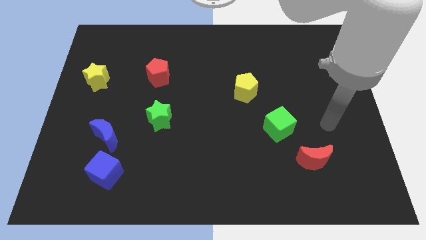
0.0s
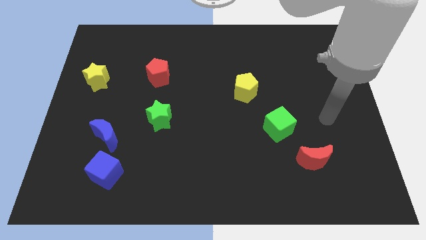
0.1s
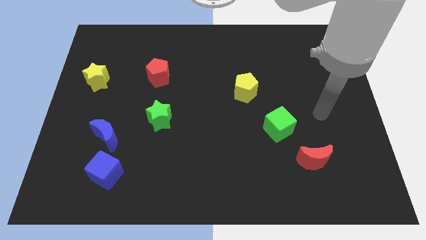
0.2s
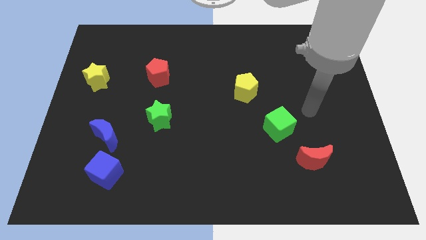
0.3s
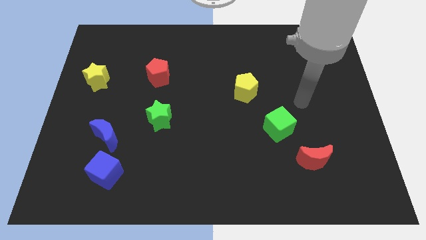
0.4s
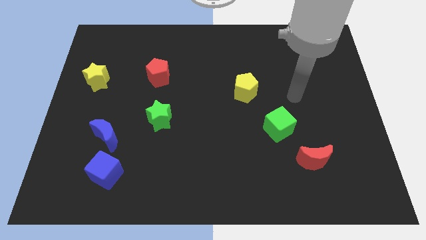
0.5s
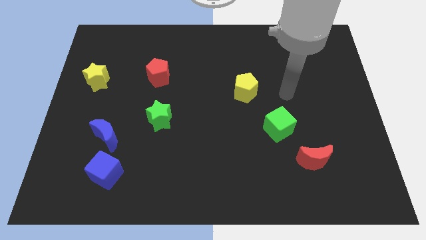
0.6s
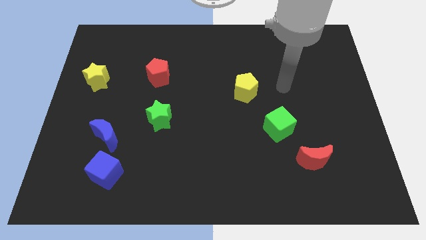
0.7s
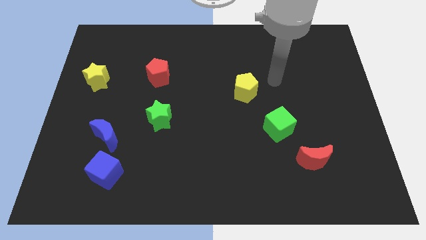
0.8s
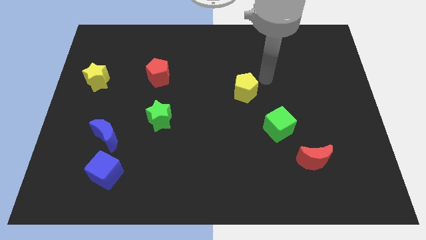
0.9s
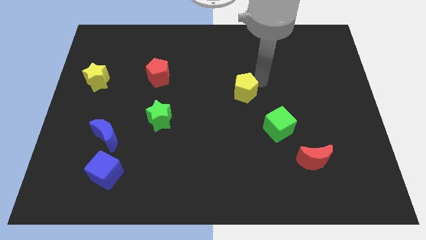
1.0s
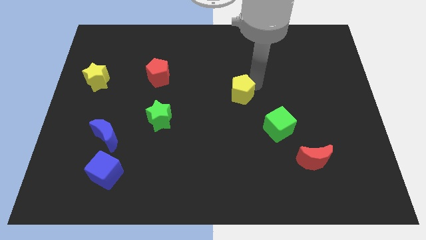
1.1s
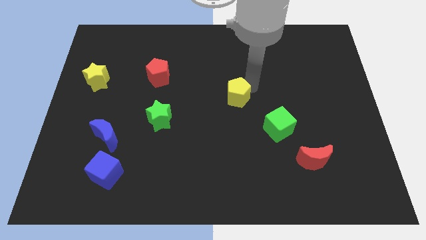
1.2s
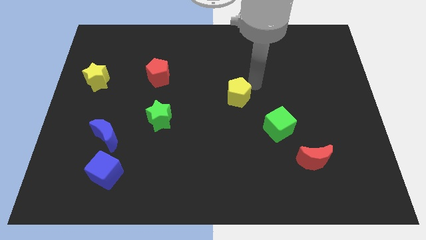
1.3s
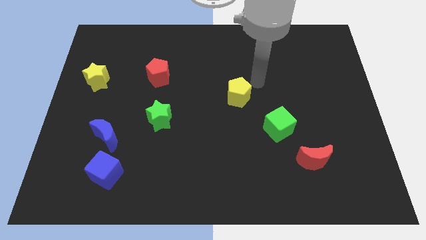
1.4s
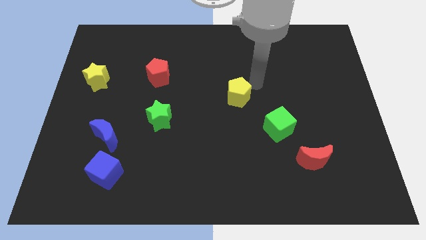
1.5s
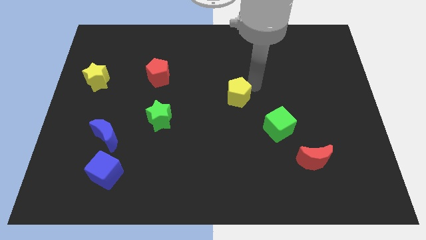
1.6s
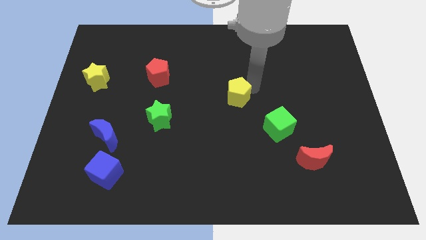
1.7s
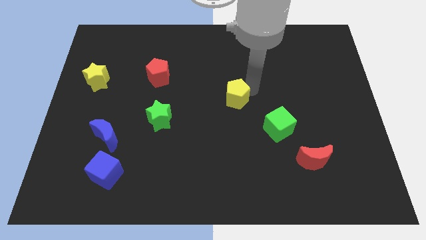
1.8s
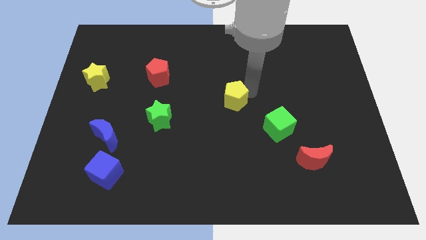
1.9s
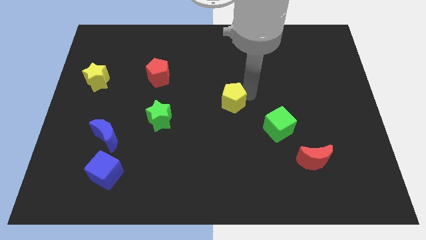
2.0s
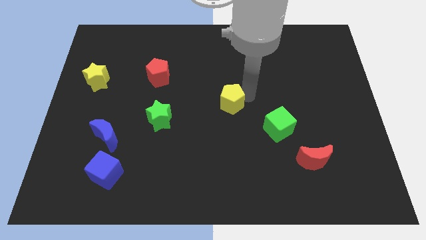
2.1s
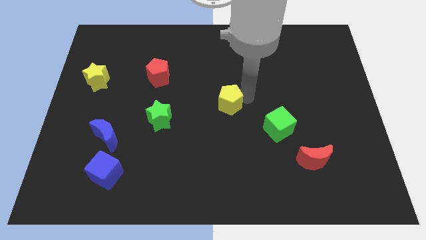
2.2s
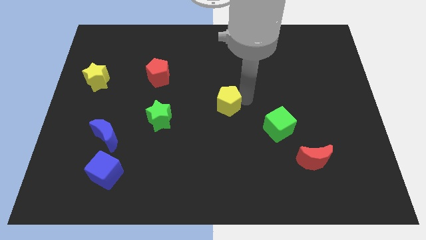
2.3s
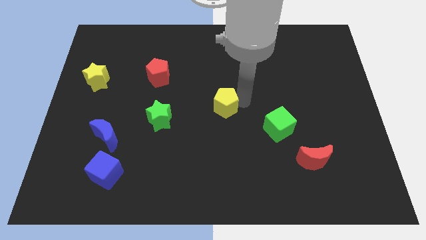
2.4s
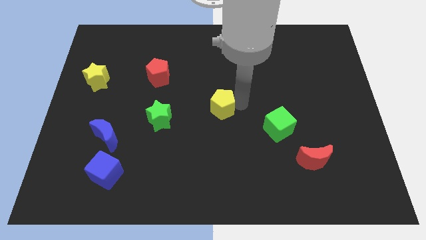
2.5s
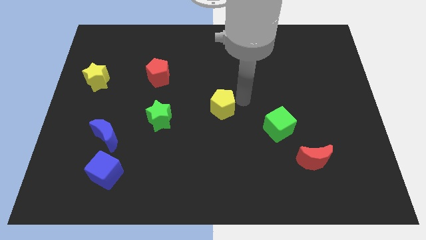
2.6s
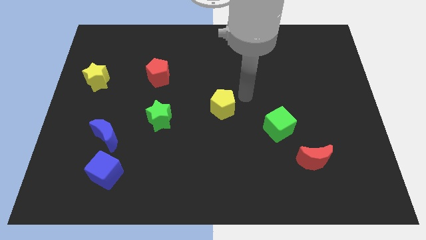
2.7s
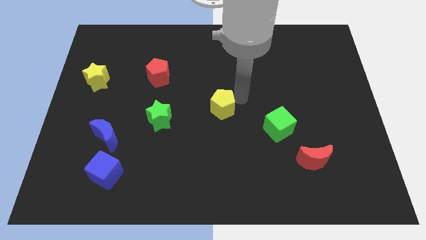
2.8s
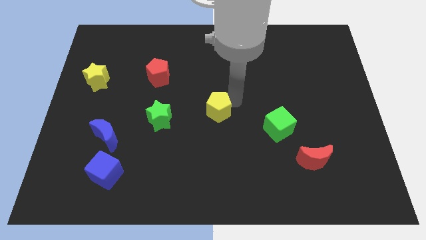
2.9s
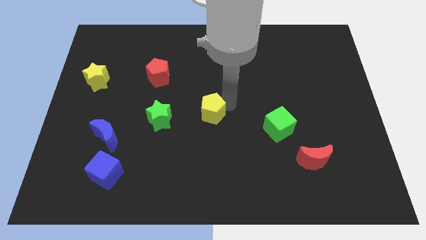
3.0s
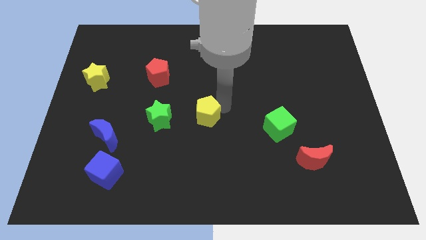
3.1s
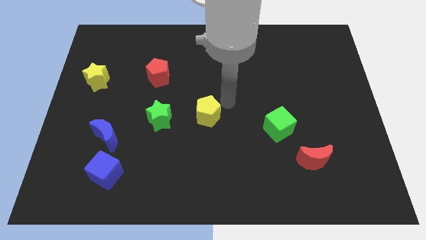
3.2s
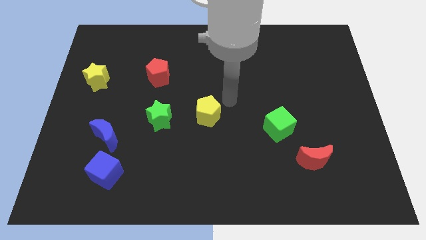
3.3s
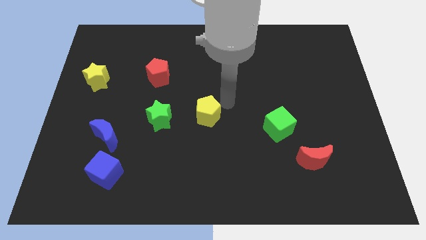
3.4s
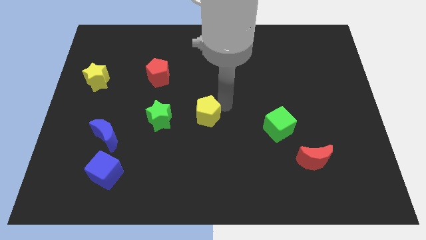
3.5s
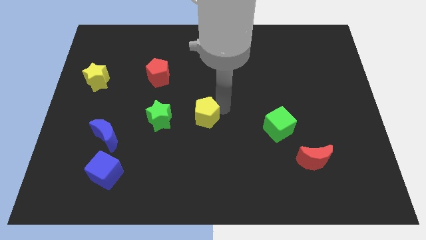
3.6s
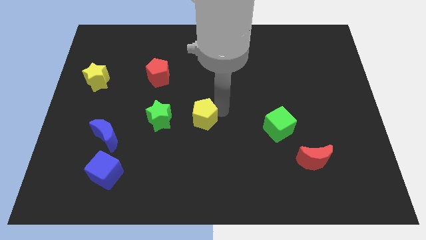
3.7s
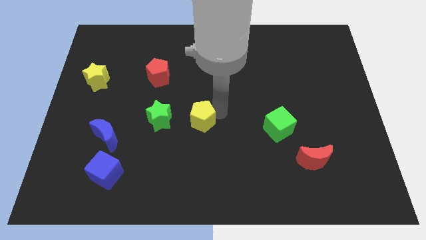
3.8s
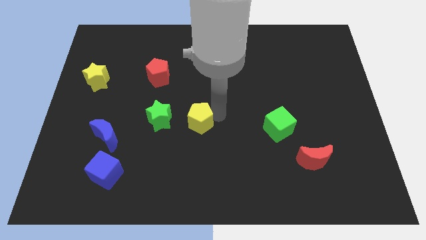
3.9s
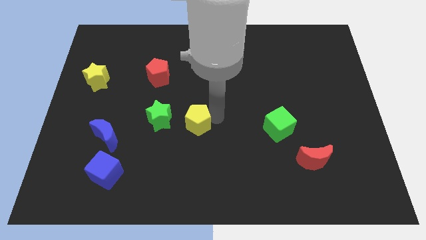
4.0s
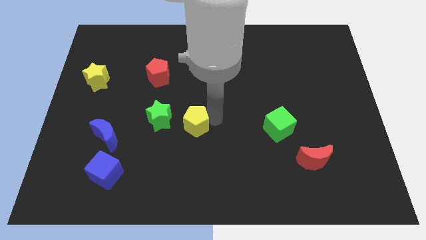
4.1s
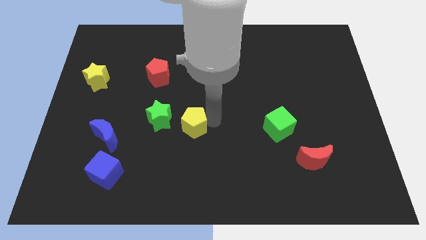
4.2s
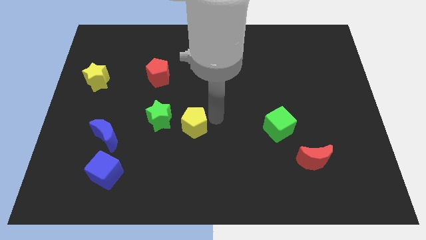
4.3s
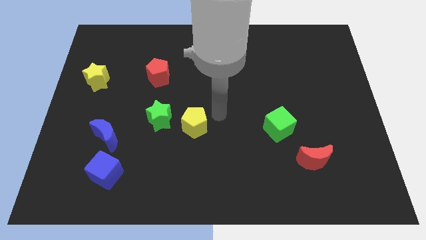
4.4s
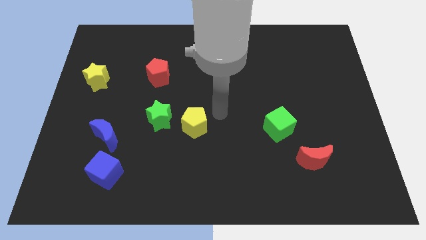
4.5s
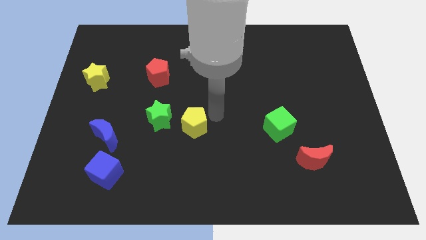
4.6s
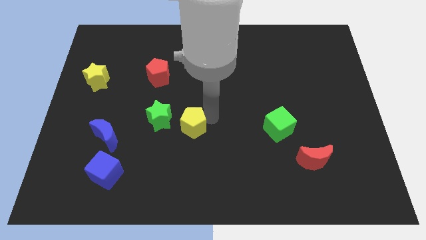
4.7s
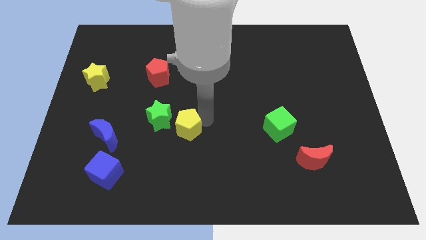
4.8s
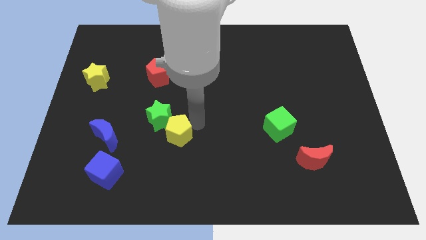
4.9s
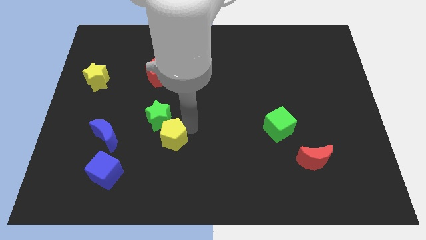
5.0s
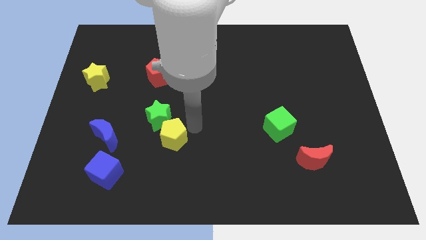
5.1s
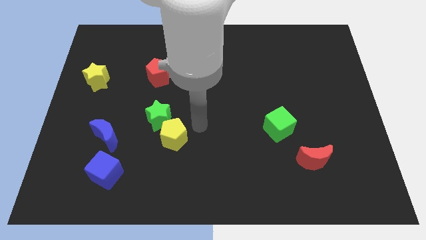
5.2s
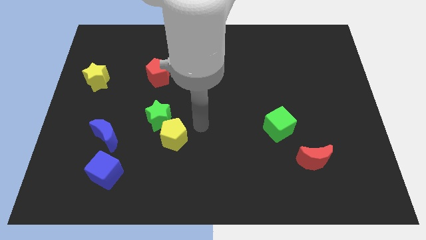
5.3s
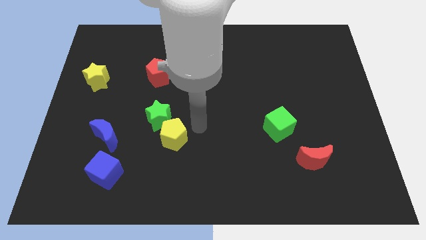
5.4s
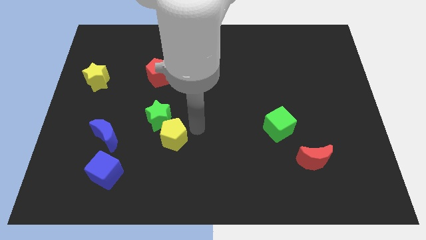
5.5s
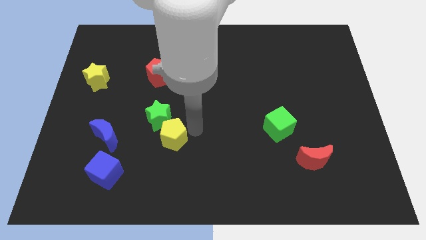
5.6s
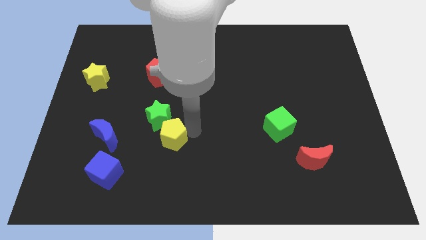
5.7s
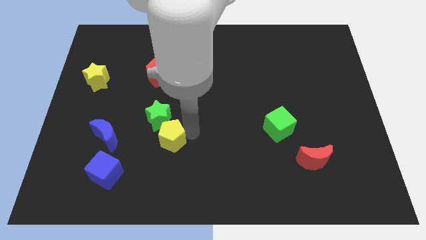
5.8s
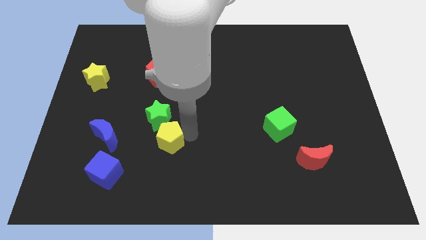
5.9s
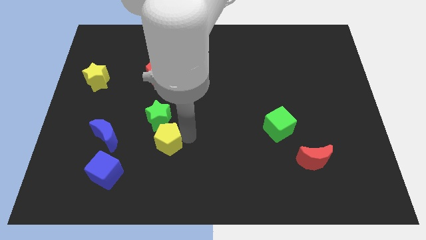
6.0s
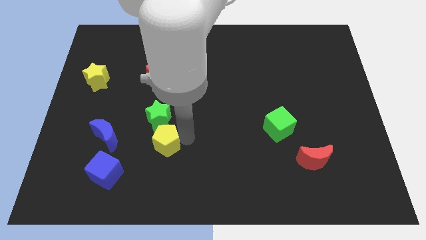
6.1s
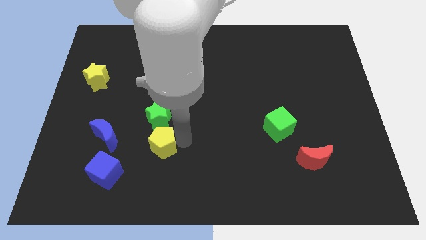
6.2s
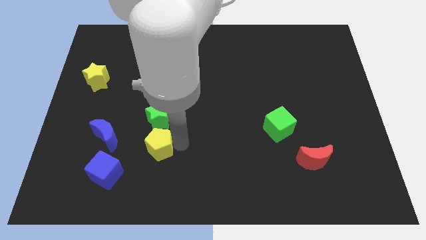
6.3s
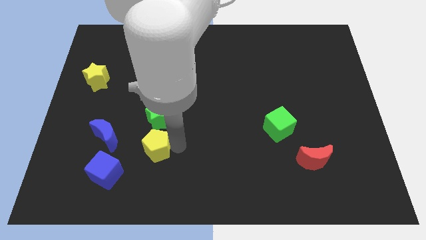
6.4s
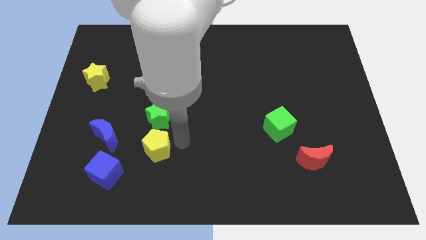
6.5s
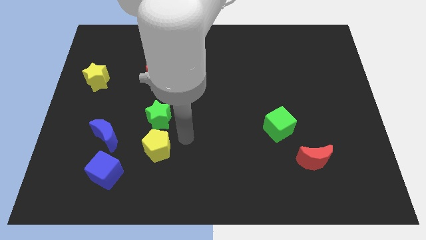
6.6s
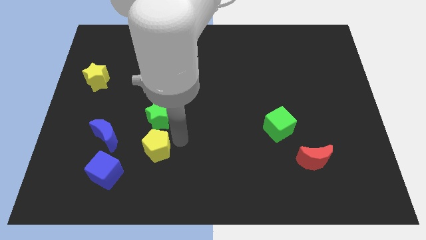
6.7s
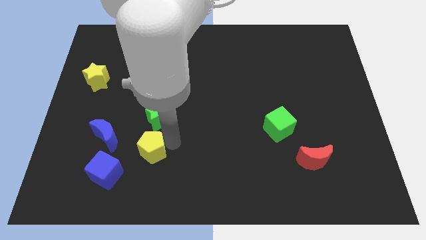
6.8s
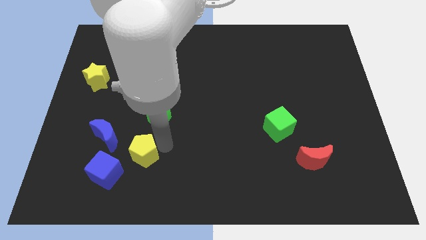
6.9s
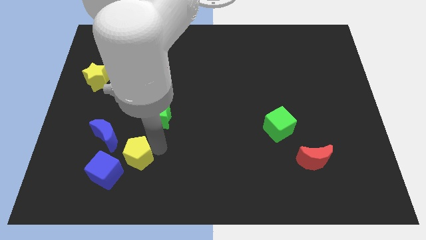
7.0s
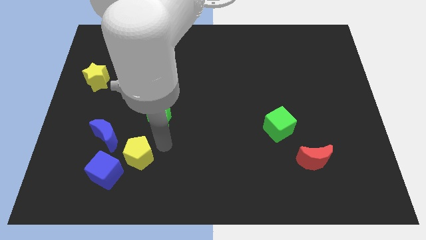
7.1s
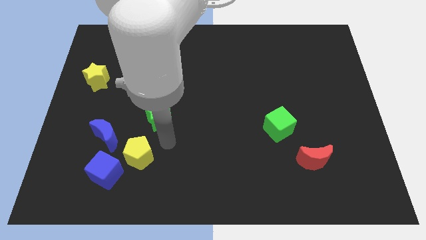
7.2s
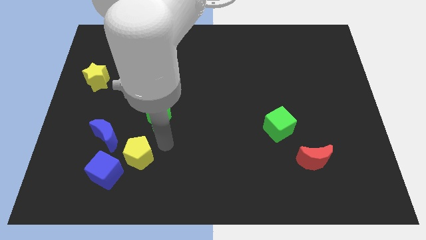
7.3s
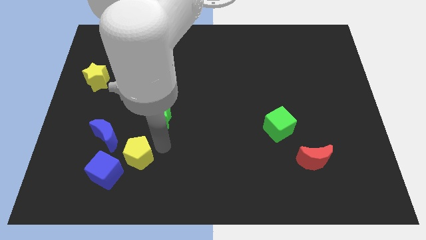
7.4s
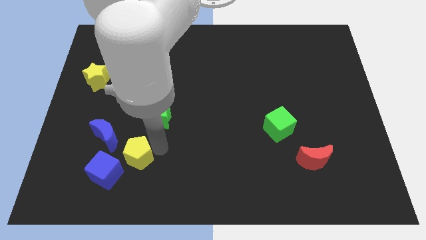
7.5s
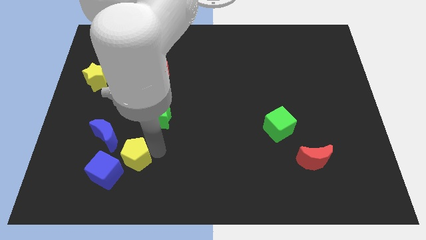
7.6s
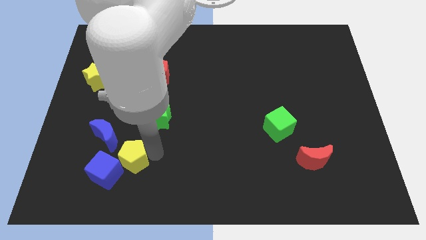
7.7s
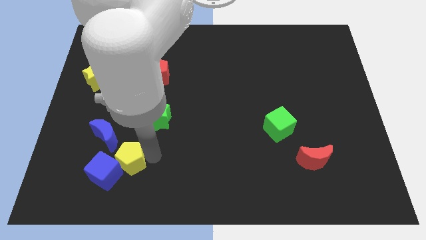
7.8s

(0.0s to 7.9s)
put the yellow pentagon close to the blue cube
